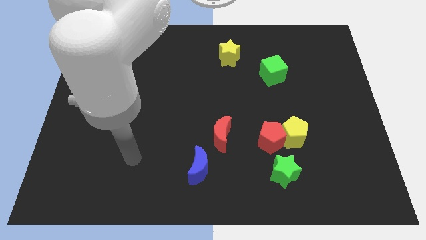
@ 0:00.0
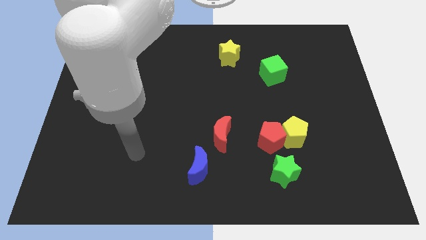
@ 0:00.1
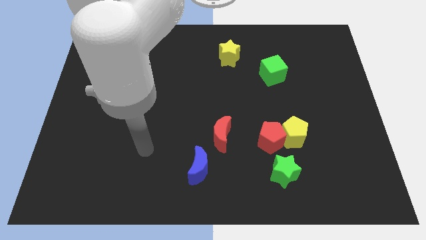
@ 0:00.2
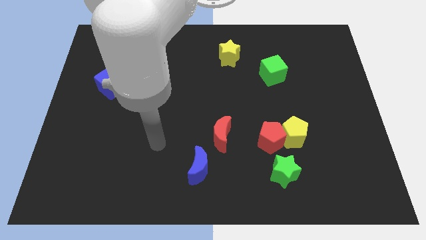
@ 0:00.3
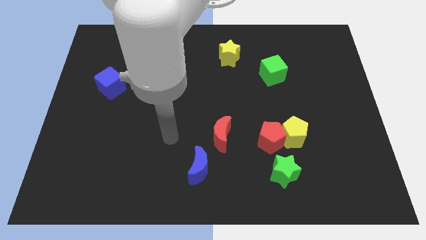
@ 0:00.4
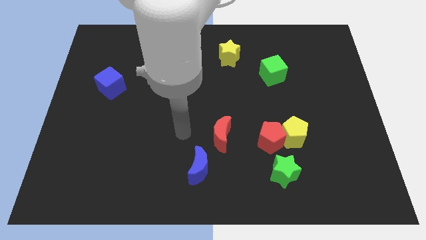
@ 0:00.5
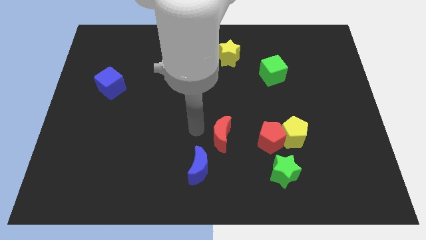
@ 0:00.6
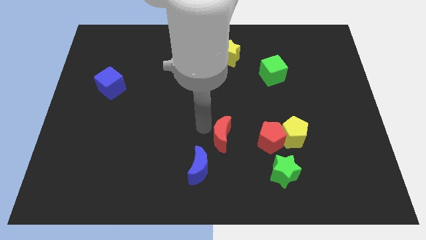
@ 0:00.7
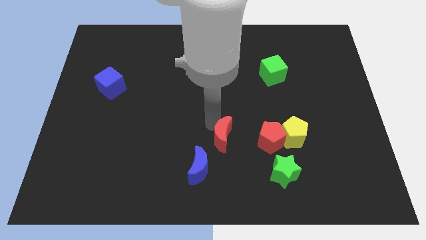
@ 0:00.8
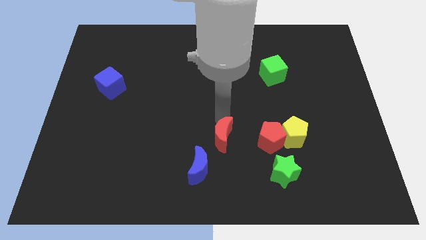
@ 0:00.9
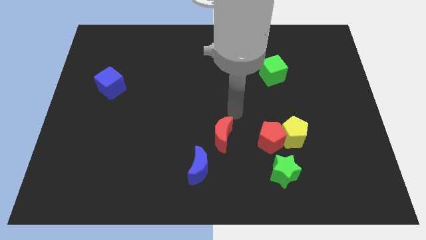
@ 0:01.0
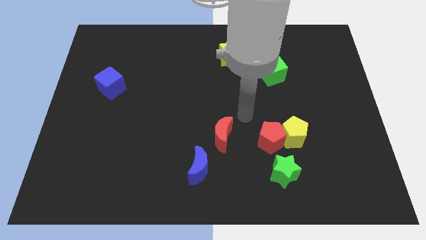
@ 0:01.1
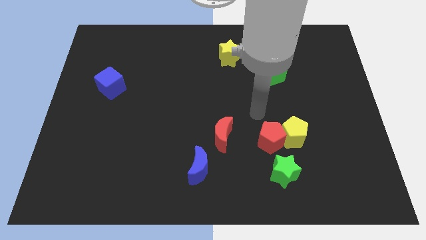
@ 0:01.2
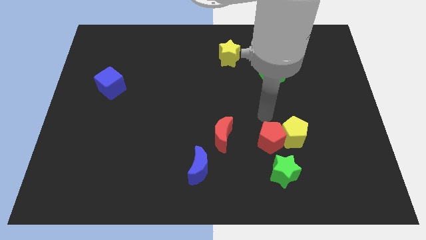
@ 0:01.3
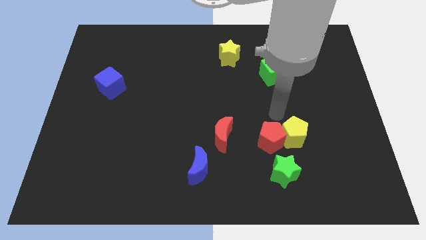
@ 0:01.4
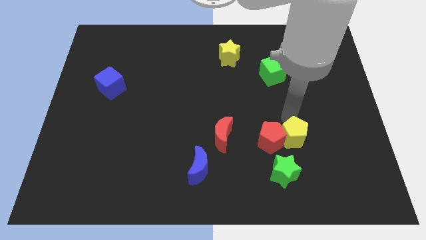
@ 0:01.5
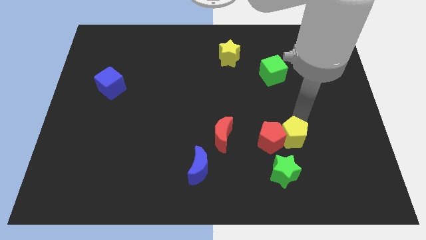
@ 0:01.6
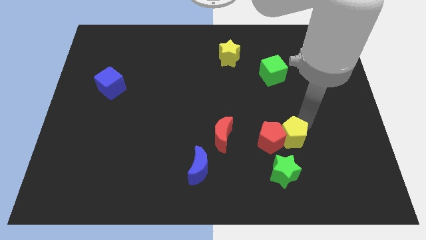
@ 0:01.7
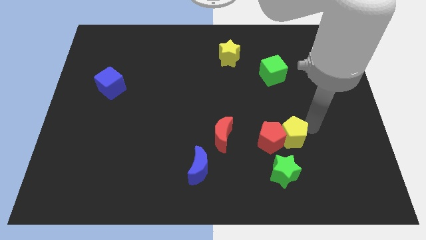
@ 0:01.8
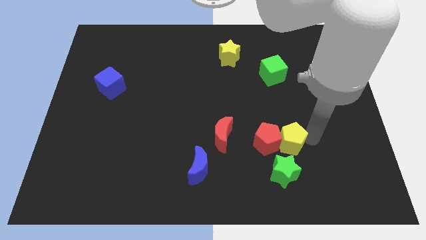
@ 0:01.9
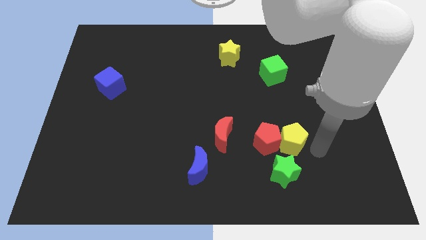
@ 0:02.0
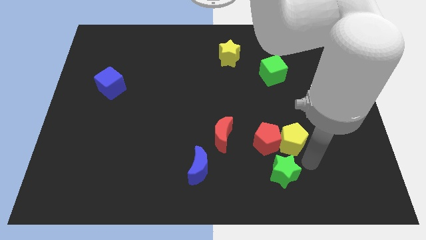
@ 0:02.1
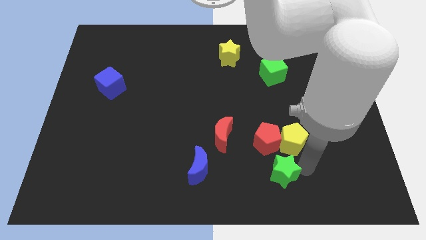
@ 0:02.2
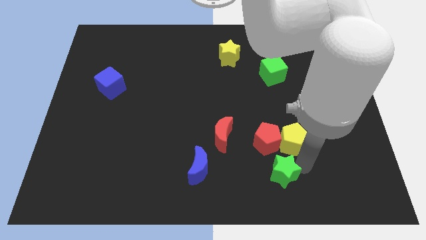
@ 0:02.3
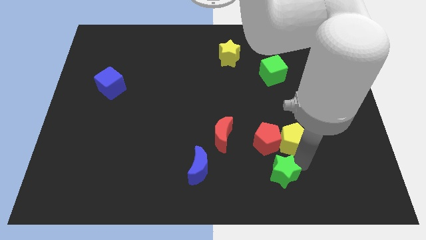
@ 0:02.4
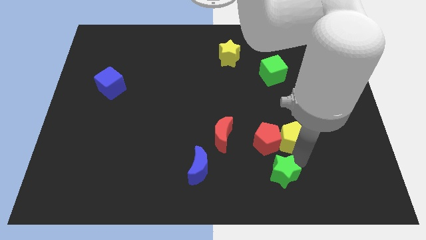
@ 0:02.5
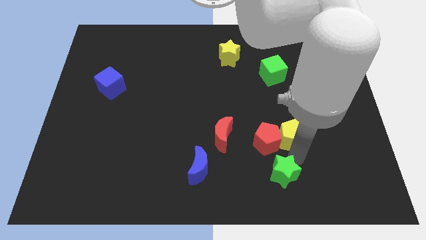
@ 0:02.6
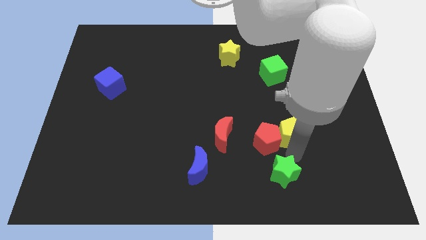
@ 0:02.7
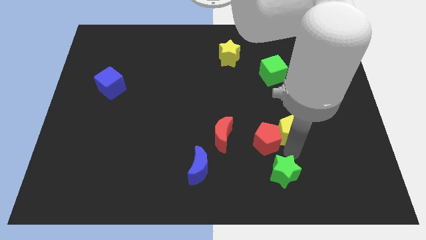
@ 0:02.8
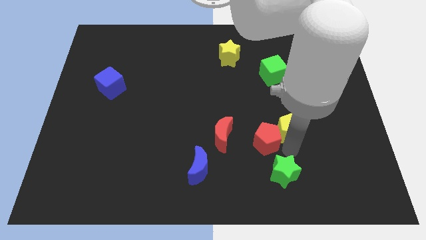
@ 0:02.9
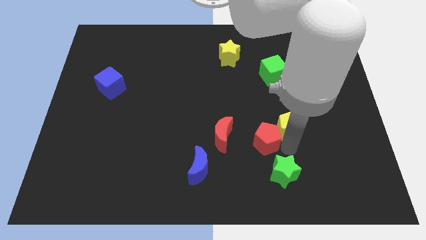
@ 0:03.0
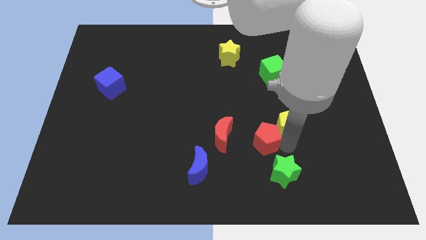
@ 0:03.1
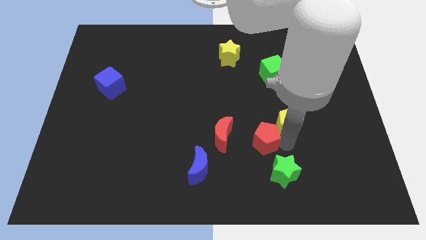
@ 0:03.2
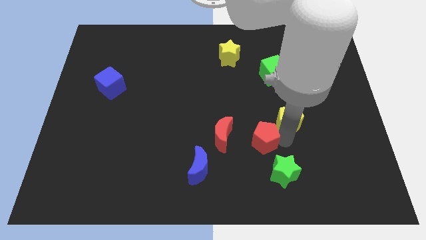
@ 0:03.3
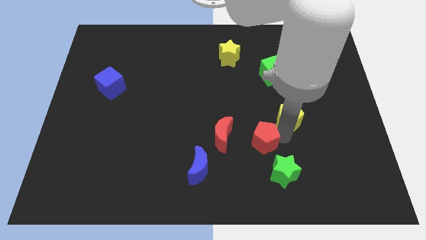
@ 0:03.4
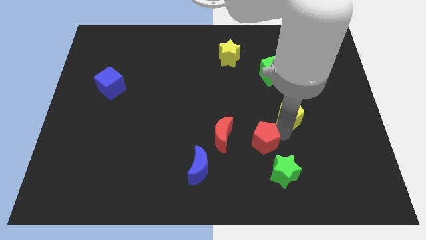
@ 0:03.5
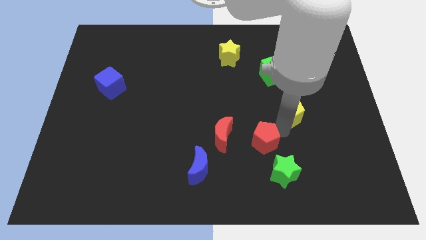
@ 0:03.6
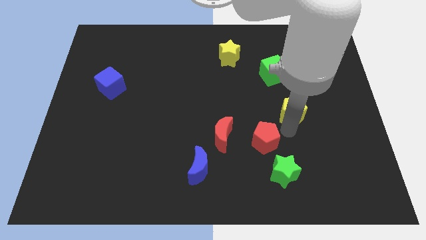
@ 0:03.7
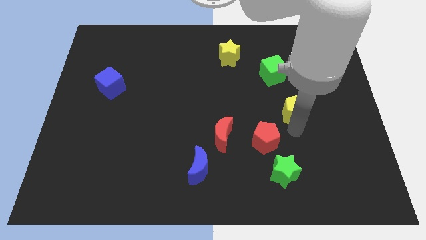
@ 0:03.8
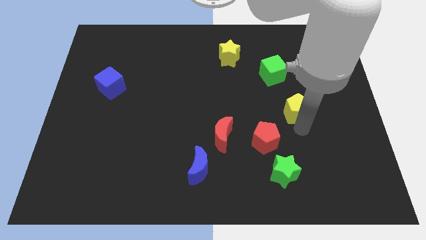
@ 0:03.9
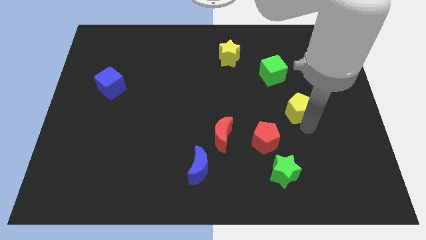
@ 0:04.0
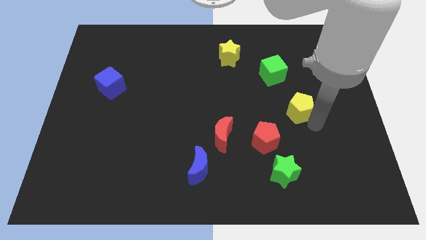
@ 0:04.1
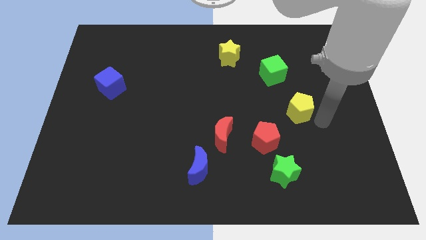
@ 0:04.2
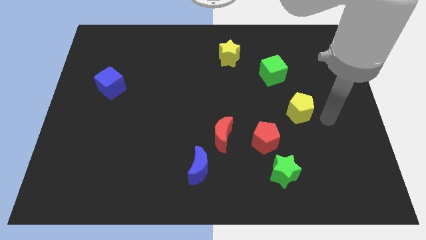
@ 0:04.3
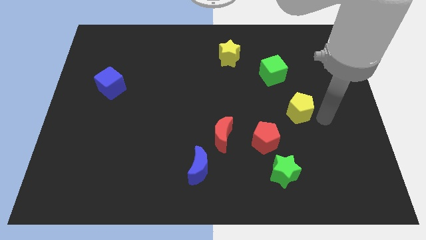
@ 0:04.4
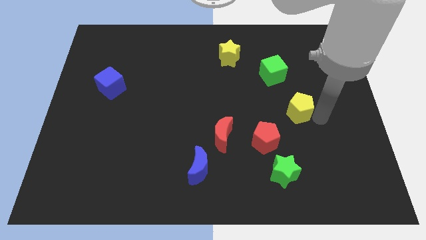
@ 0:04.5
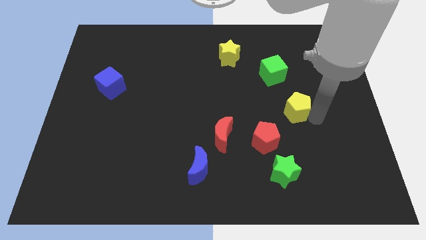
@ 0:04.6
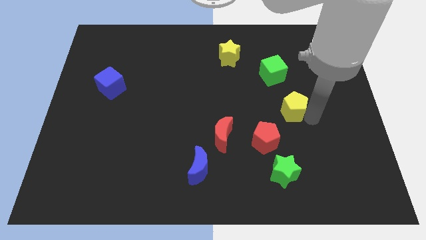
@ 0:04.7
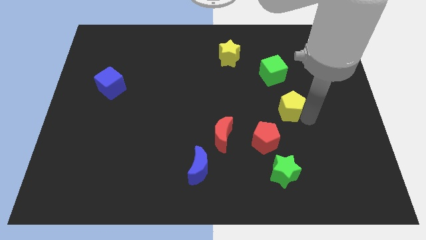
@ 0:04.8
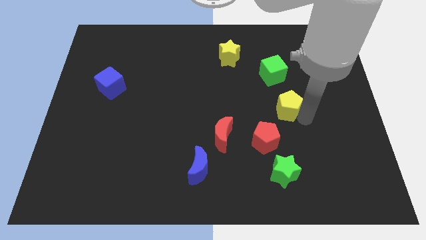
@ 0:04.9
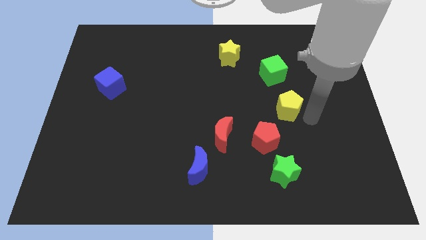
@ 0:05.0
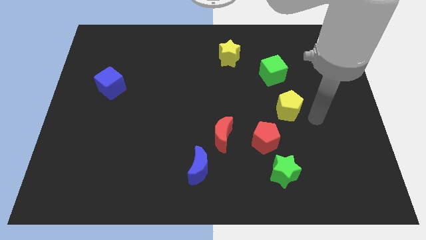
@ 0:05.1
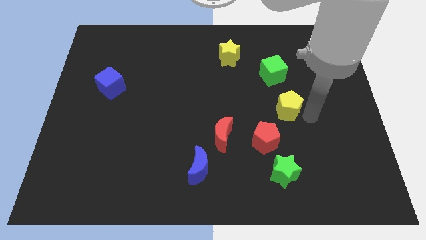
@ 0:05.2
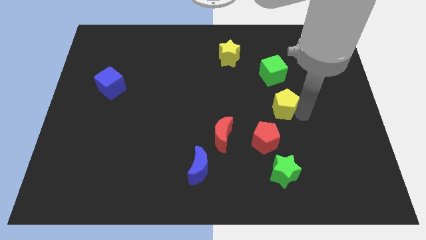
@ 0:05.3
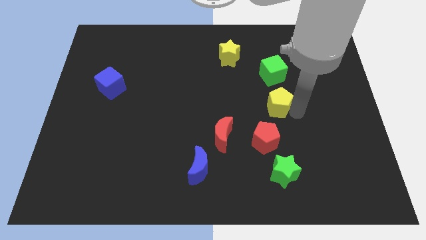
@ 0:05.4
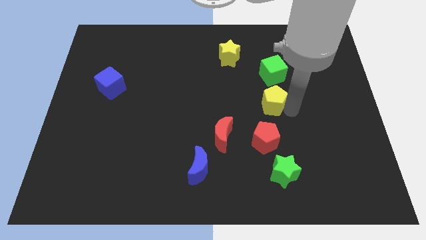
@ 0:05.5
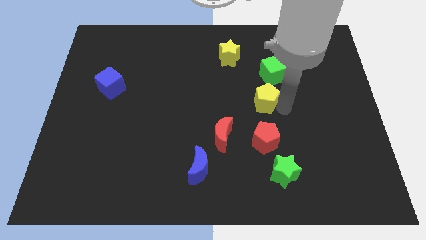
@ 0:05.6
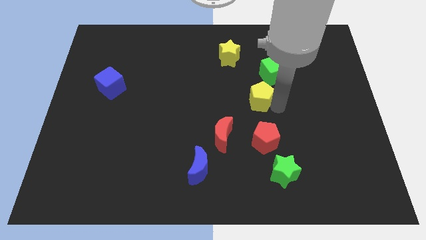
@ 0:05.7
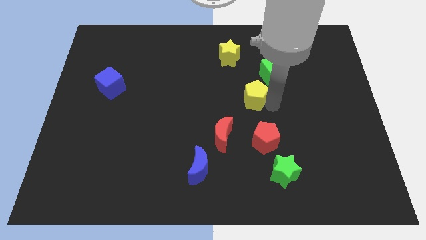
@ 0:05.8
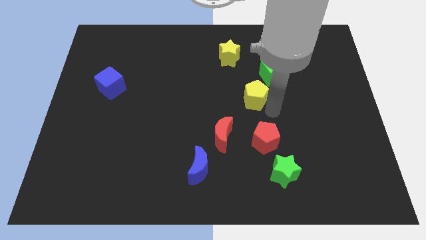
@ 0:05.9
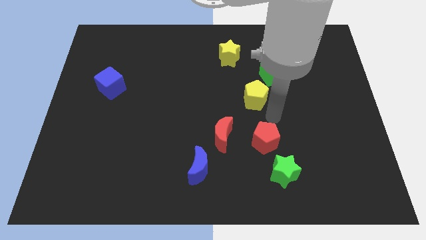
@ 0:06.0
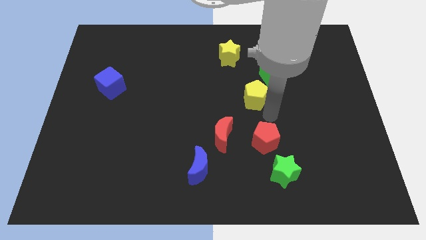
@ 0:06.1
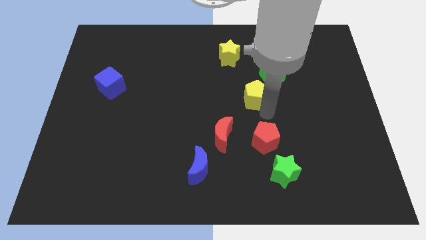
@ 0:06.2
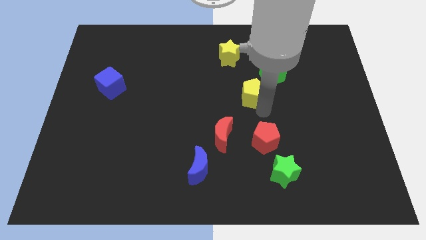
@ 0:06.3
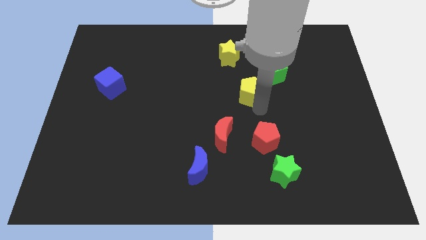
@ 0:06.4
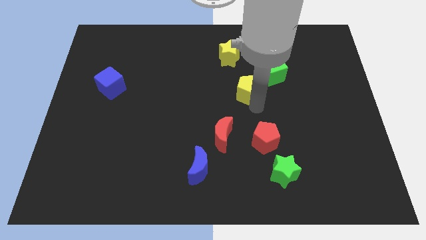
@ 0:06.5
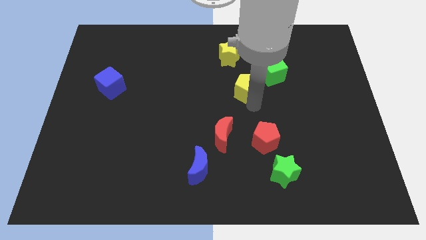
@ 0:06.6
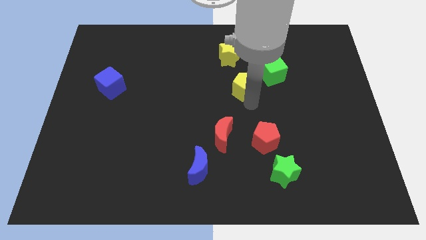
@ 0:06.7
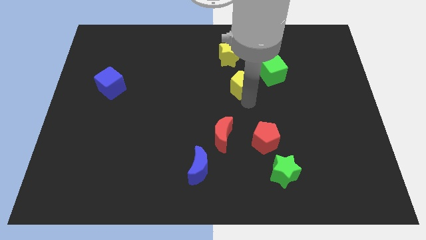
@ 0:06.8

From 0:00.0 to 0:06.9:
slide the yellow pentagon just left of the green cube
